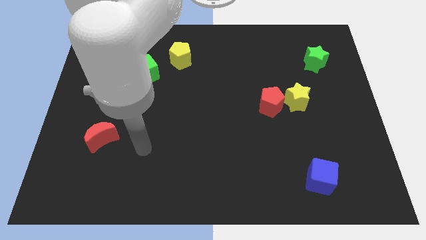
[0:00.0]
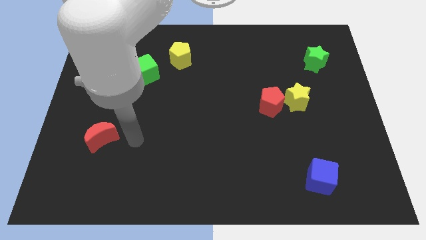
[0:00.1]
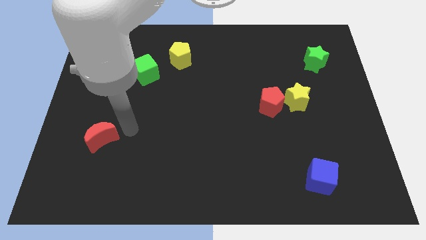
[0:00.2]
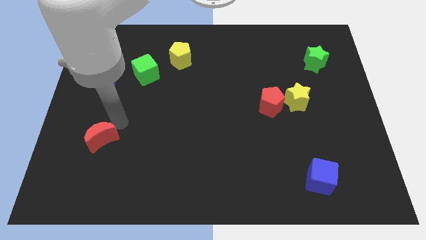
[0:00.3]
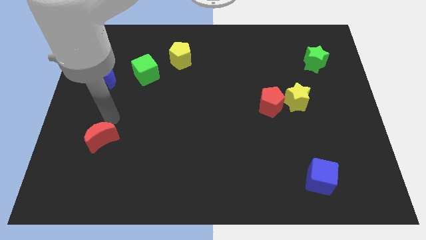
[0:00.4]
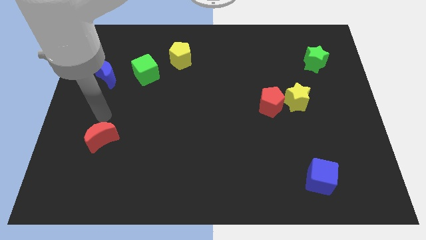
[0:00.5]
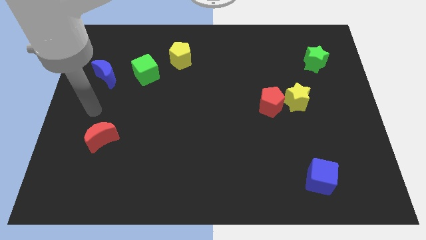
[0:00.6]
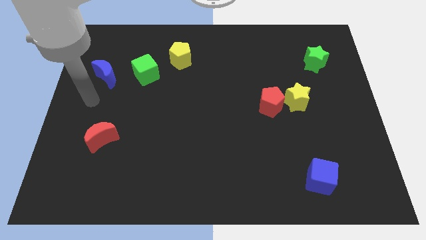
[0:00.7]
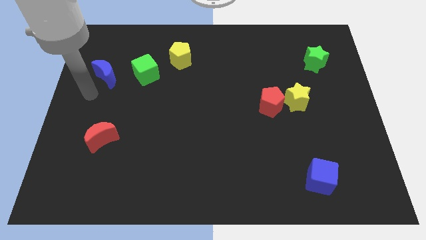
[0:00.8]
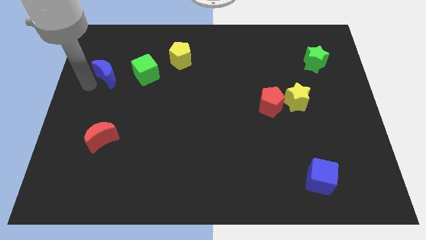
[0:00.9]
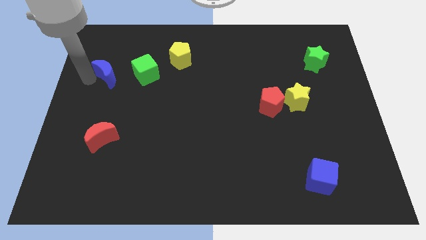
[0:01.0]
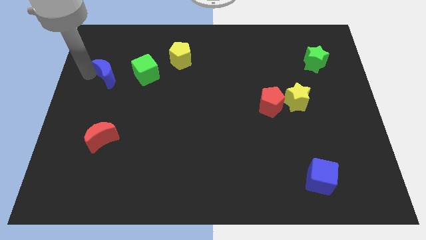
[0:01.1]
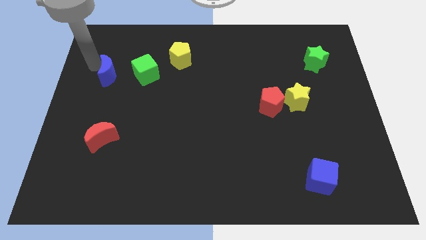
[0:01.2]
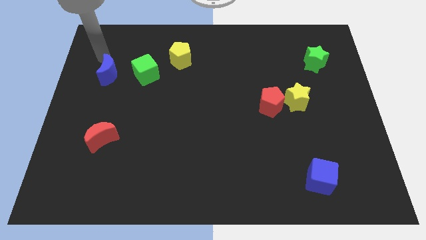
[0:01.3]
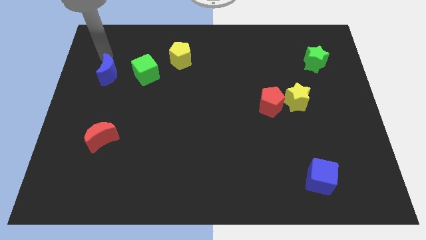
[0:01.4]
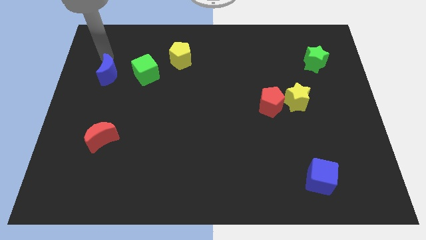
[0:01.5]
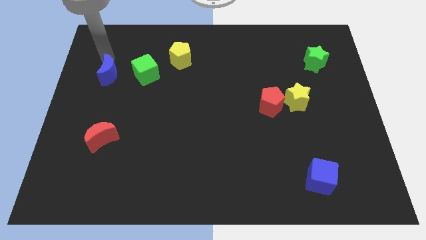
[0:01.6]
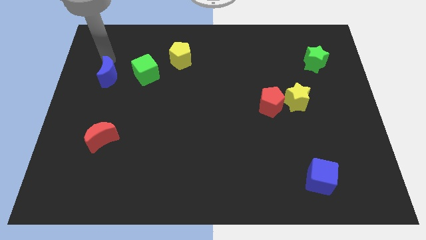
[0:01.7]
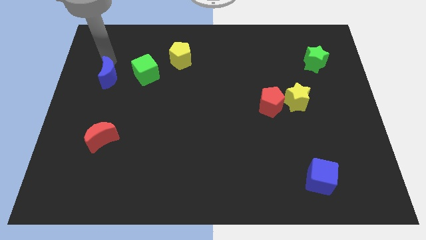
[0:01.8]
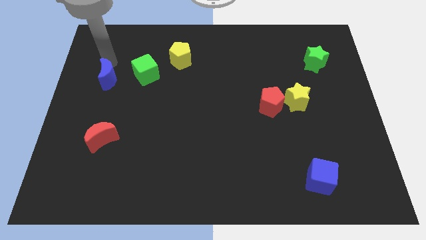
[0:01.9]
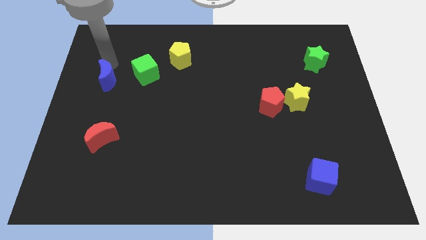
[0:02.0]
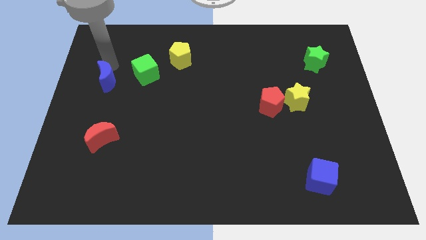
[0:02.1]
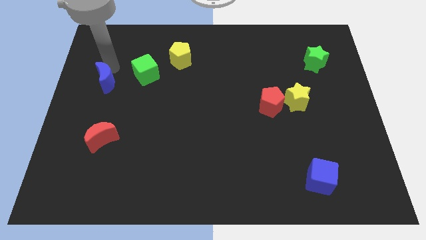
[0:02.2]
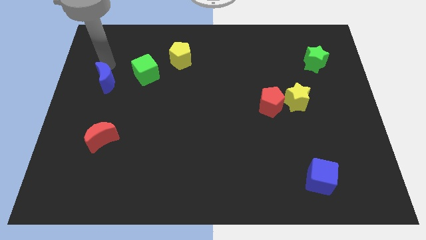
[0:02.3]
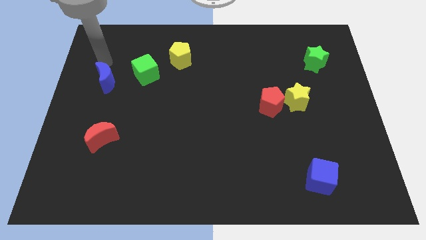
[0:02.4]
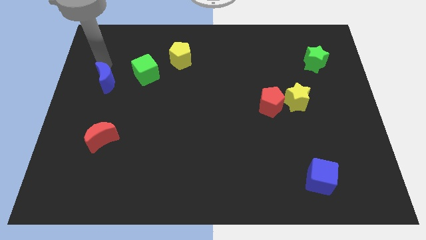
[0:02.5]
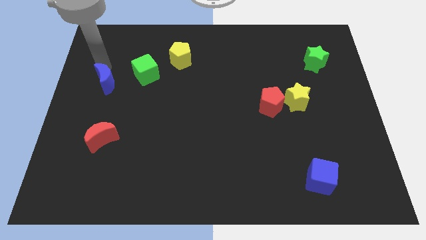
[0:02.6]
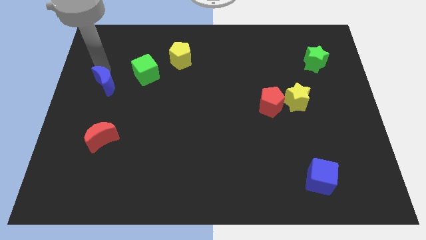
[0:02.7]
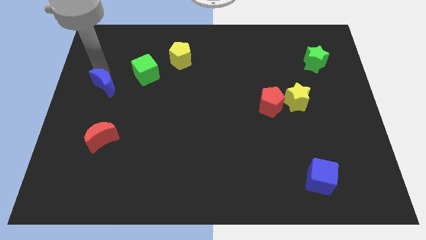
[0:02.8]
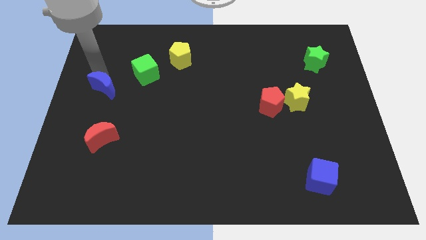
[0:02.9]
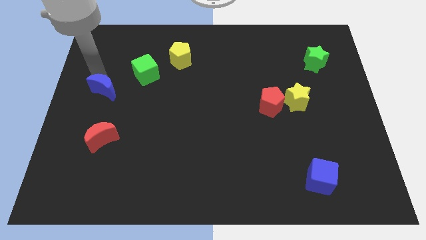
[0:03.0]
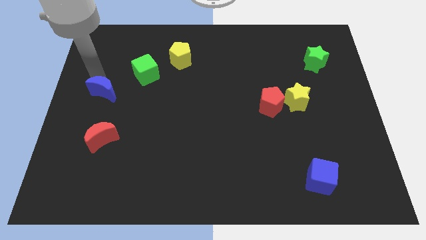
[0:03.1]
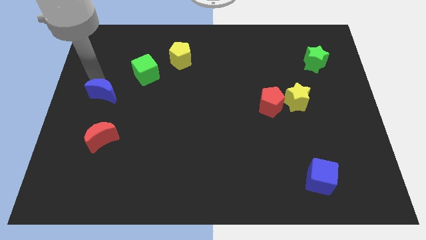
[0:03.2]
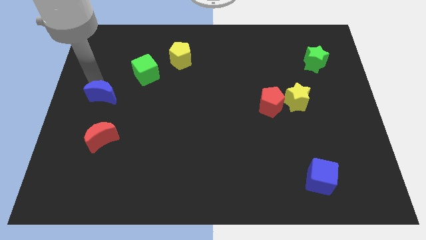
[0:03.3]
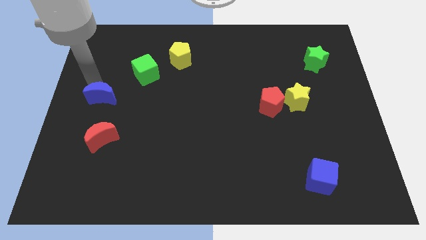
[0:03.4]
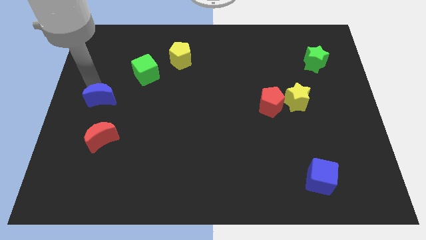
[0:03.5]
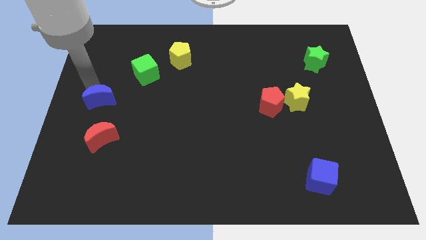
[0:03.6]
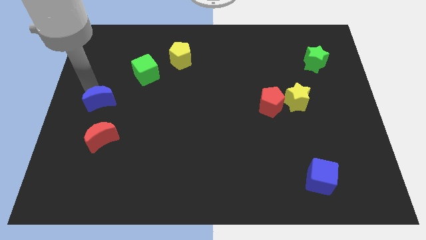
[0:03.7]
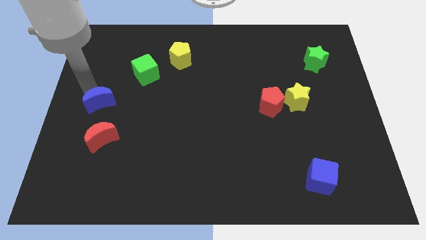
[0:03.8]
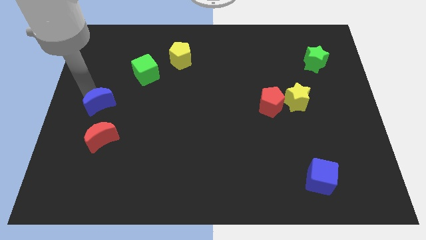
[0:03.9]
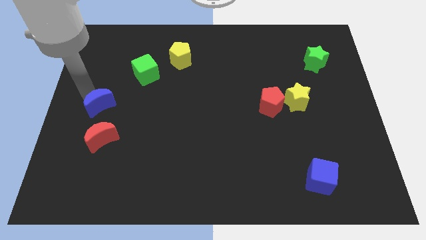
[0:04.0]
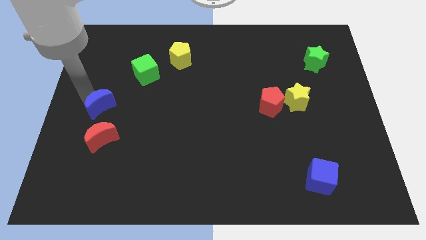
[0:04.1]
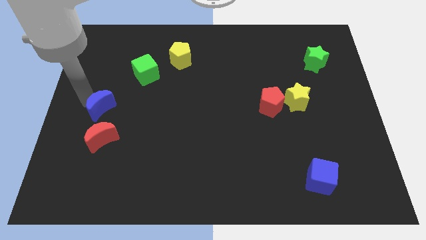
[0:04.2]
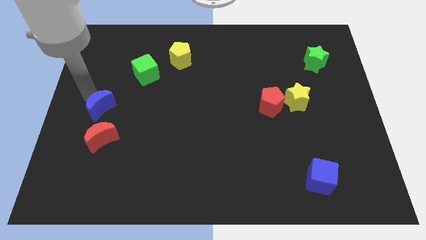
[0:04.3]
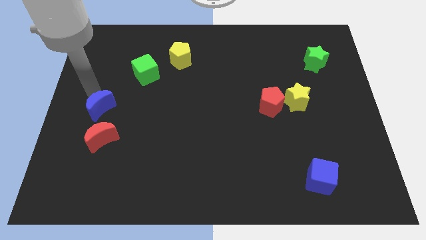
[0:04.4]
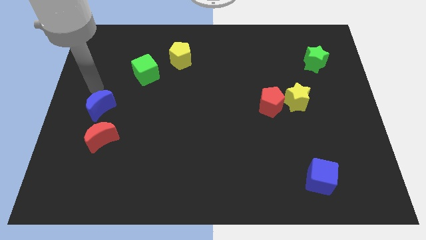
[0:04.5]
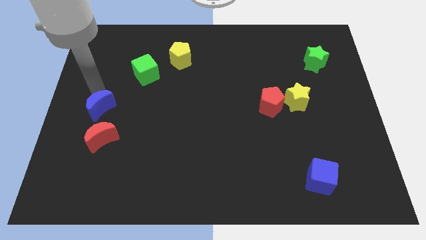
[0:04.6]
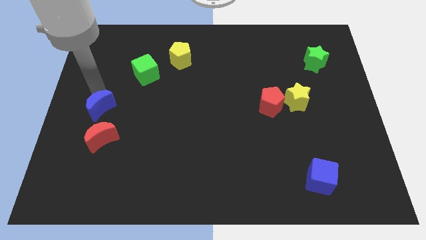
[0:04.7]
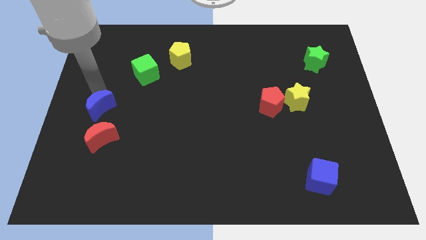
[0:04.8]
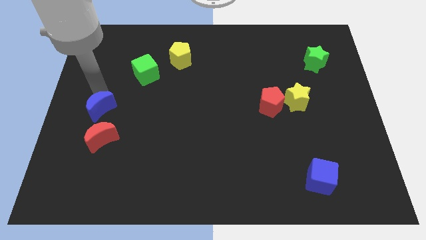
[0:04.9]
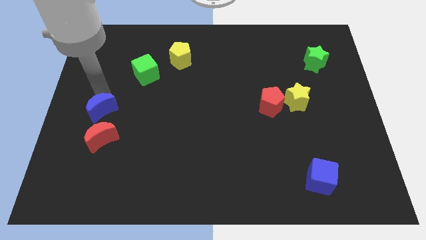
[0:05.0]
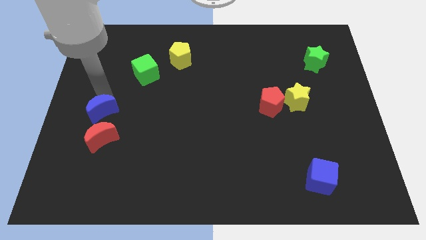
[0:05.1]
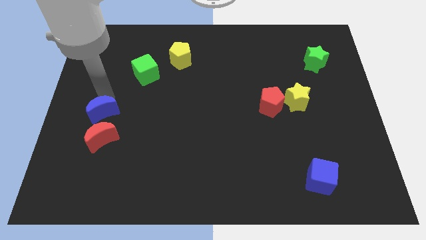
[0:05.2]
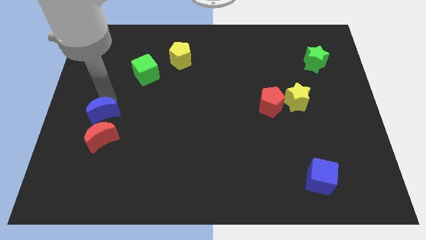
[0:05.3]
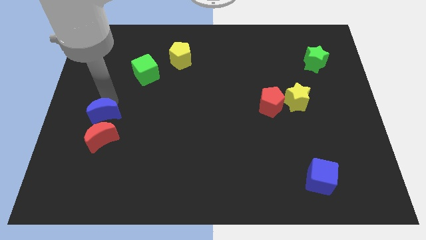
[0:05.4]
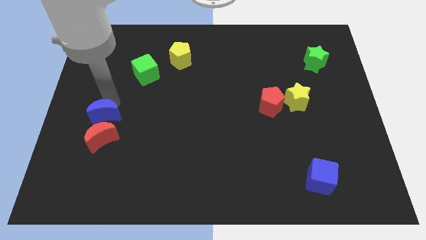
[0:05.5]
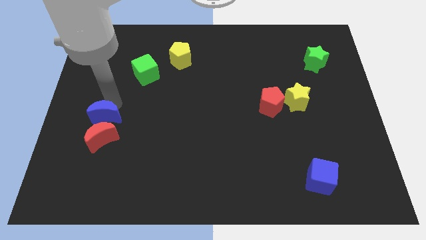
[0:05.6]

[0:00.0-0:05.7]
put the blue moon close to the red moon

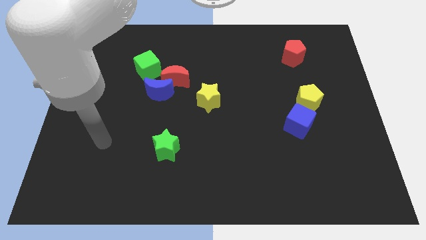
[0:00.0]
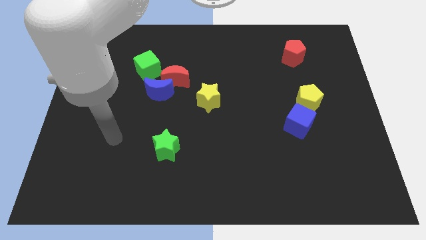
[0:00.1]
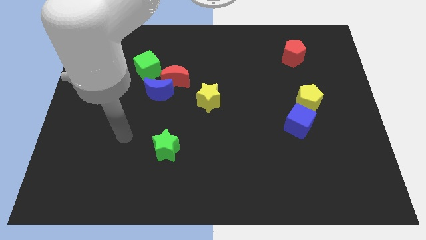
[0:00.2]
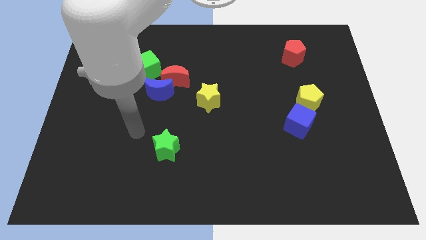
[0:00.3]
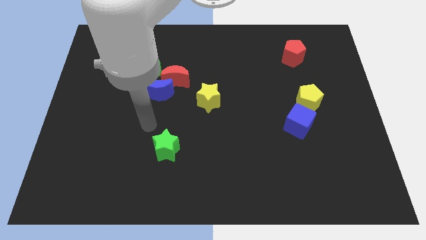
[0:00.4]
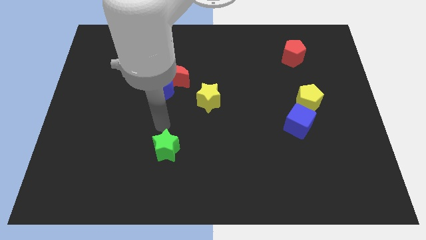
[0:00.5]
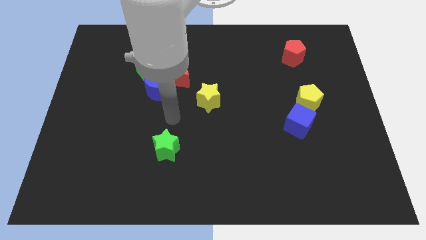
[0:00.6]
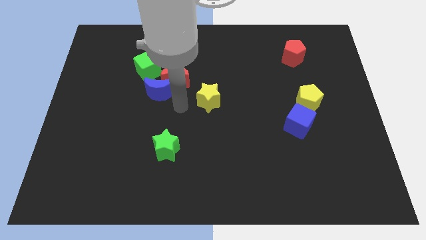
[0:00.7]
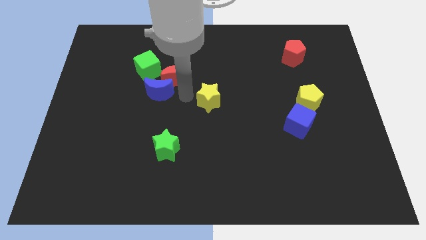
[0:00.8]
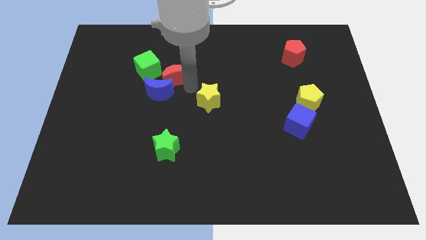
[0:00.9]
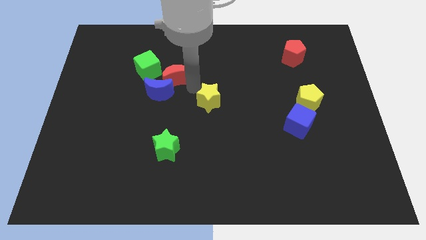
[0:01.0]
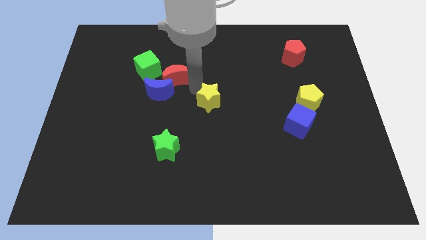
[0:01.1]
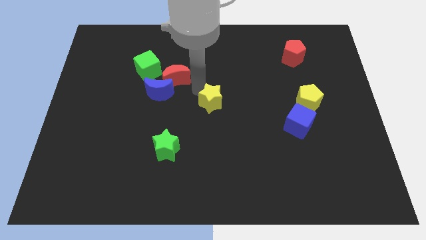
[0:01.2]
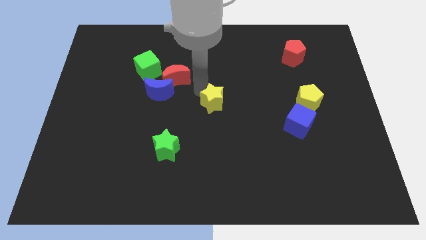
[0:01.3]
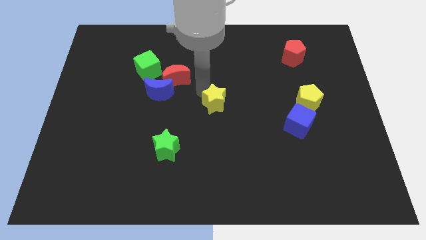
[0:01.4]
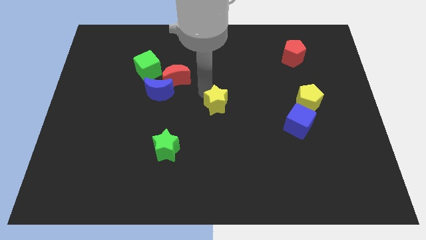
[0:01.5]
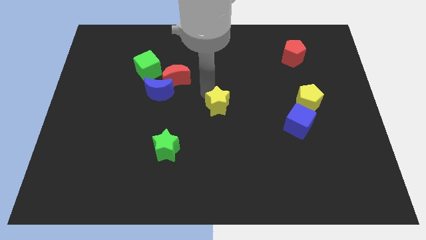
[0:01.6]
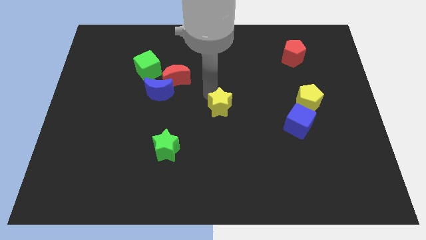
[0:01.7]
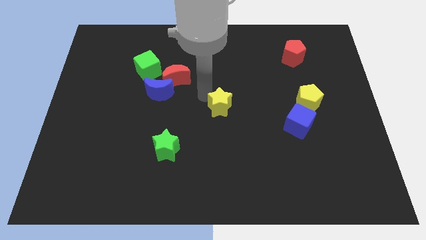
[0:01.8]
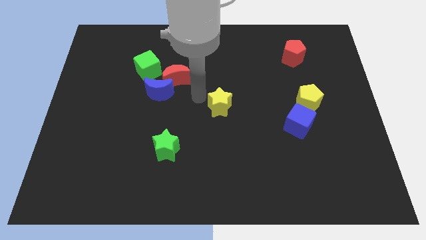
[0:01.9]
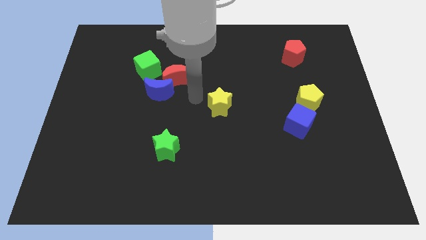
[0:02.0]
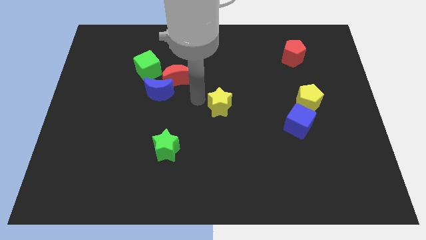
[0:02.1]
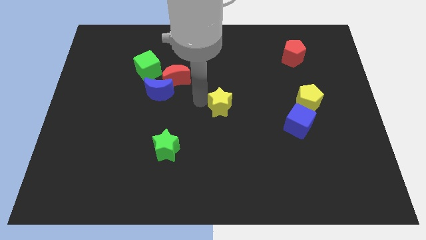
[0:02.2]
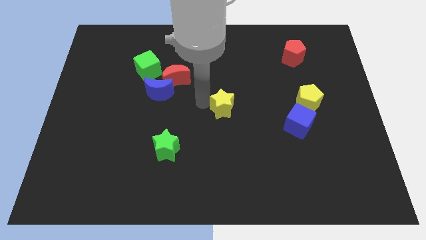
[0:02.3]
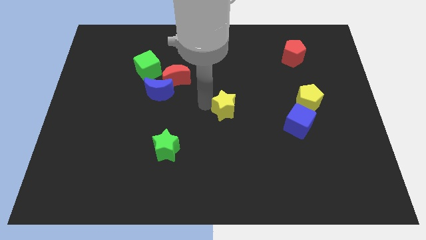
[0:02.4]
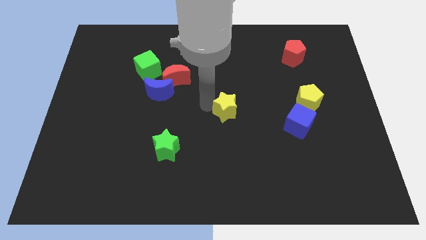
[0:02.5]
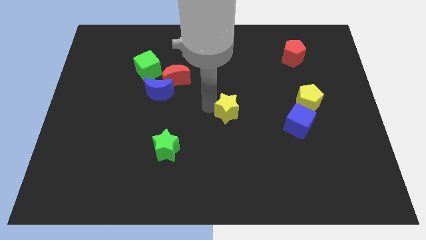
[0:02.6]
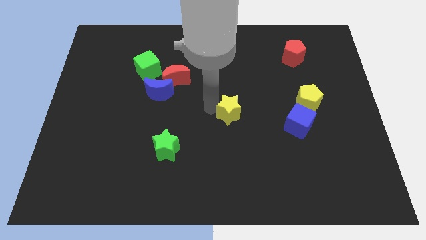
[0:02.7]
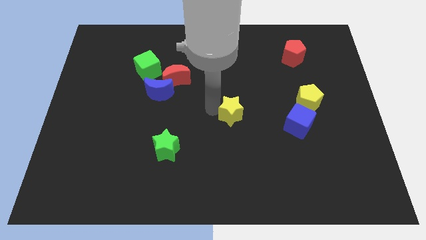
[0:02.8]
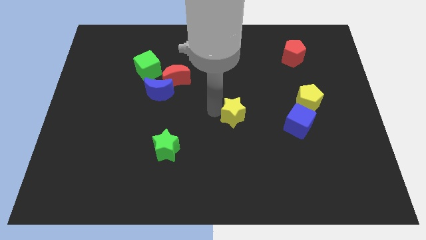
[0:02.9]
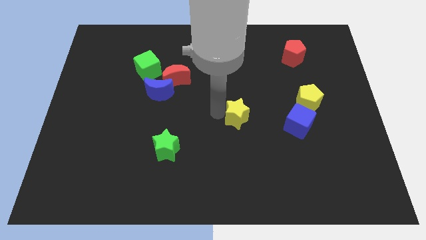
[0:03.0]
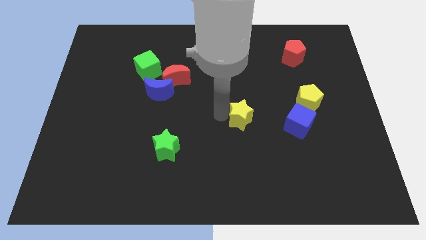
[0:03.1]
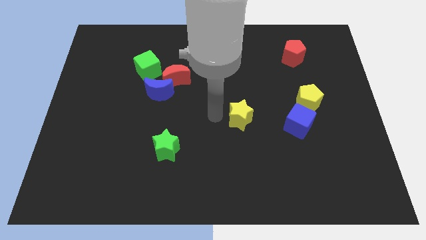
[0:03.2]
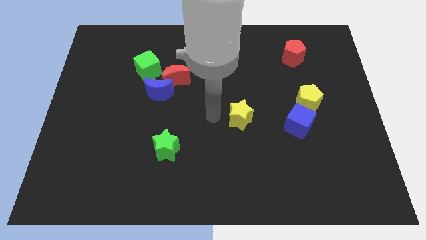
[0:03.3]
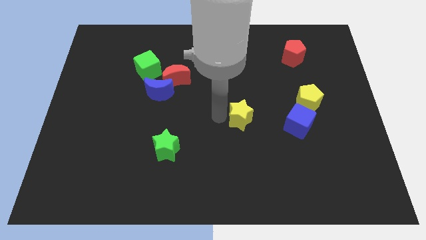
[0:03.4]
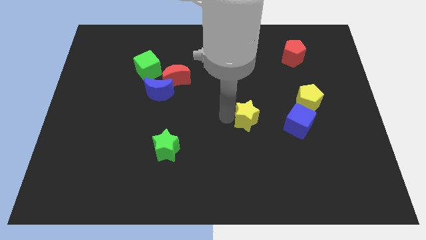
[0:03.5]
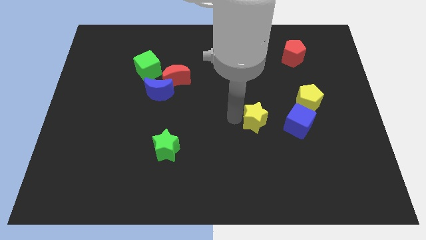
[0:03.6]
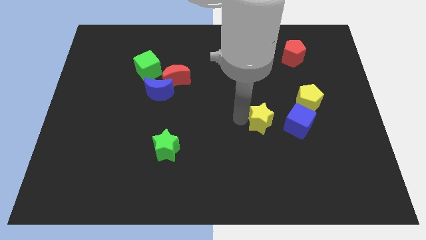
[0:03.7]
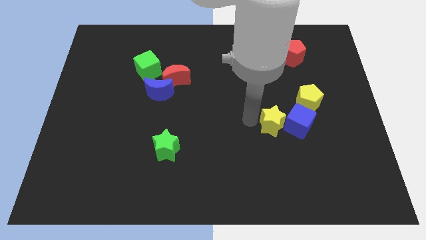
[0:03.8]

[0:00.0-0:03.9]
move the yellow star to the blue cube
